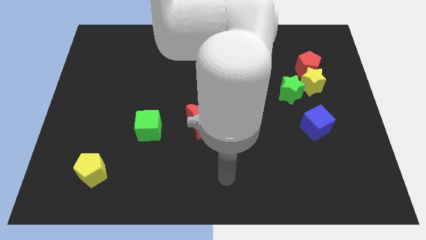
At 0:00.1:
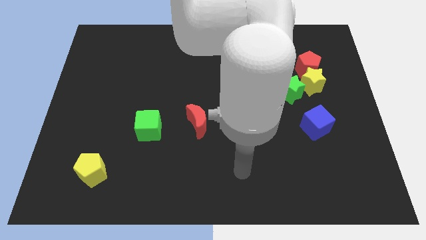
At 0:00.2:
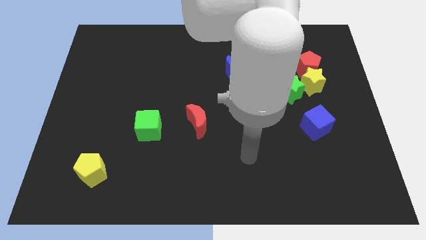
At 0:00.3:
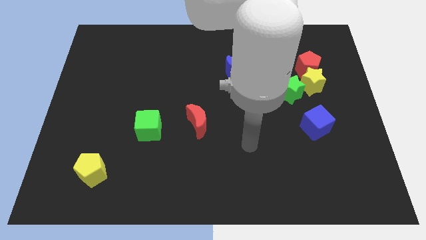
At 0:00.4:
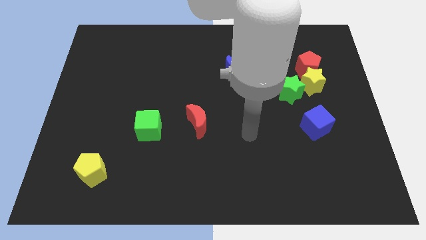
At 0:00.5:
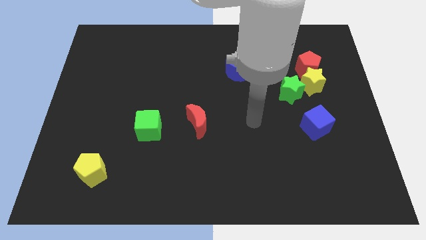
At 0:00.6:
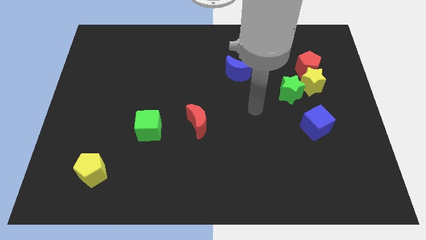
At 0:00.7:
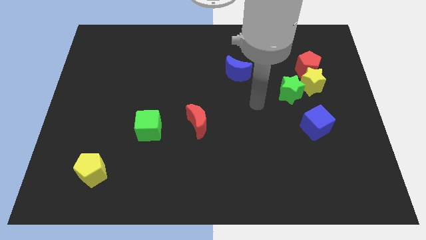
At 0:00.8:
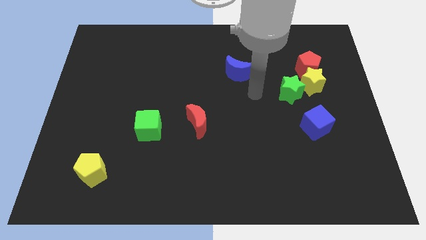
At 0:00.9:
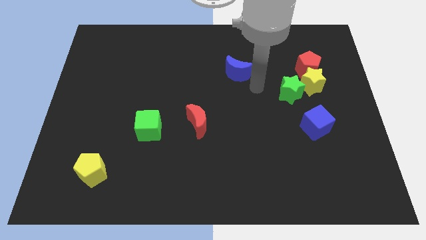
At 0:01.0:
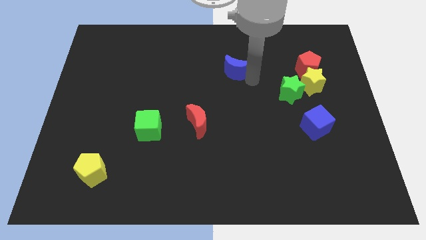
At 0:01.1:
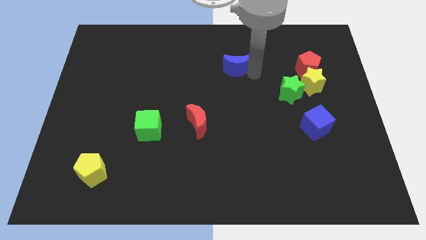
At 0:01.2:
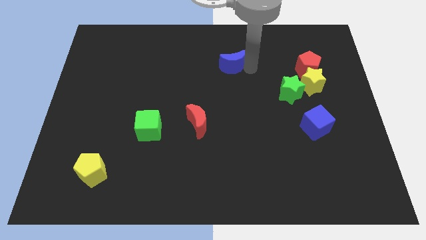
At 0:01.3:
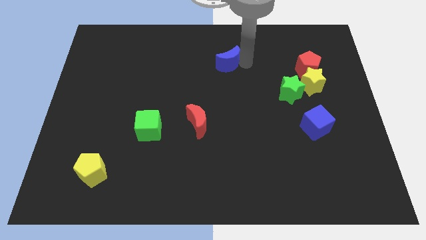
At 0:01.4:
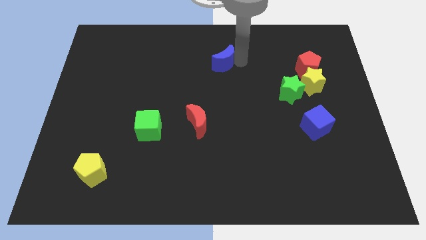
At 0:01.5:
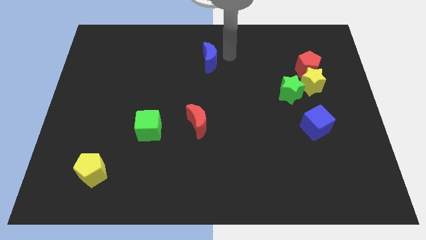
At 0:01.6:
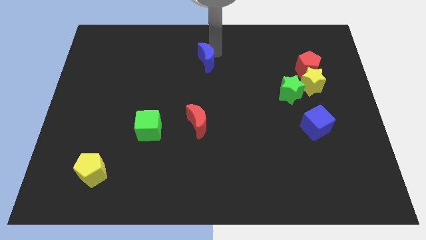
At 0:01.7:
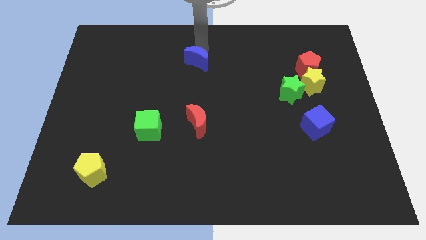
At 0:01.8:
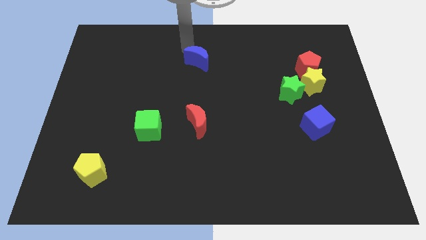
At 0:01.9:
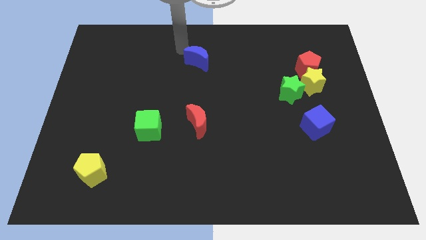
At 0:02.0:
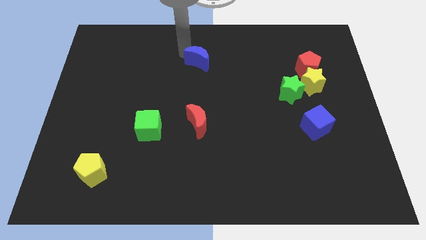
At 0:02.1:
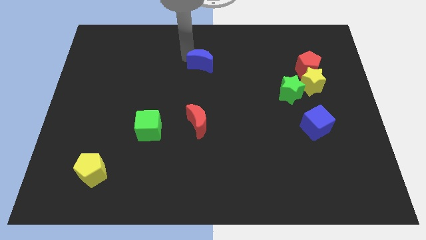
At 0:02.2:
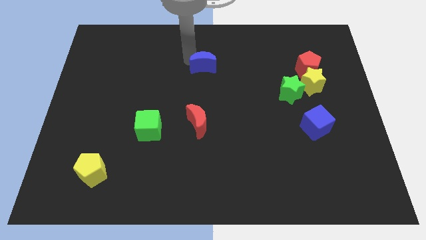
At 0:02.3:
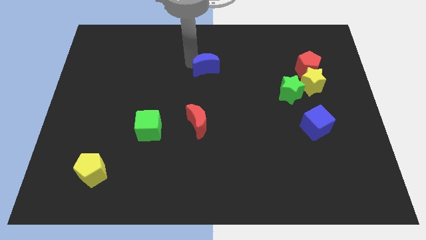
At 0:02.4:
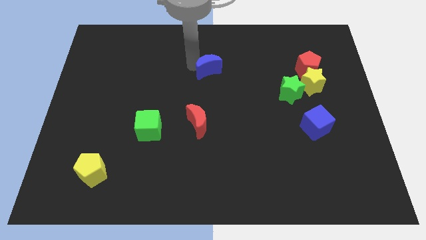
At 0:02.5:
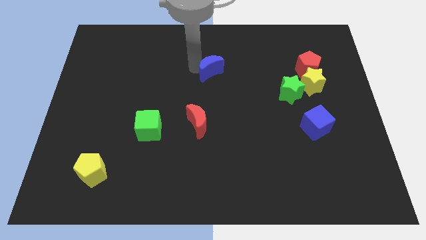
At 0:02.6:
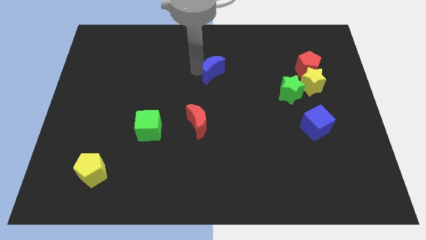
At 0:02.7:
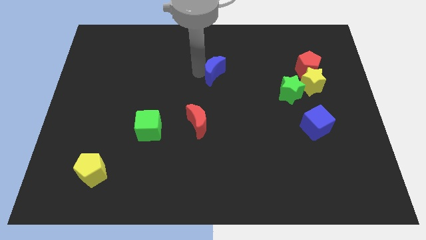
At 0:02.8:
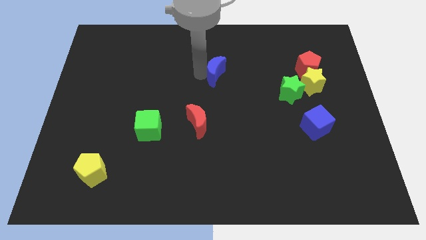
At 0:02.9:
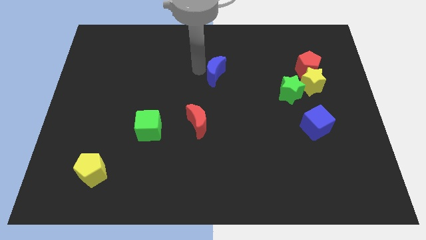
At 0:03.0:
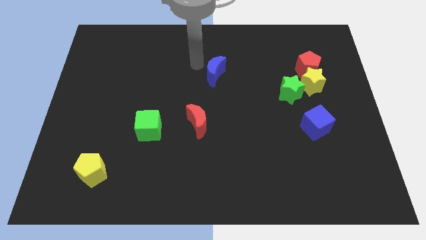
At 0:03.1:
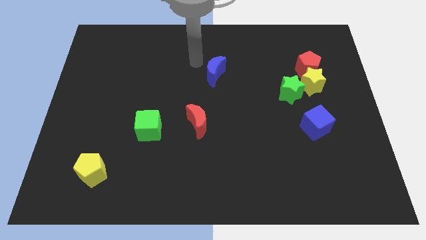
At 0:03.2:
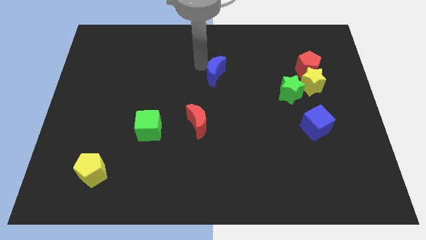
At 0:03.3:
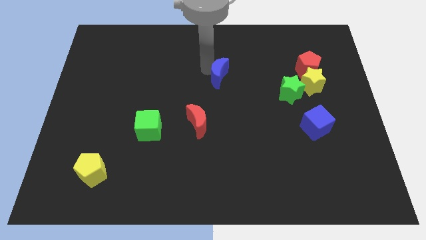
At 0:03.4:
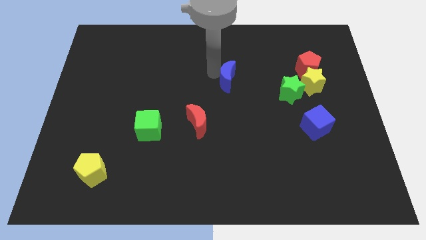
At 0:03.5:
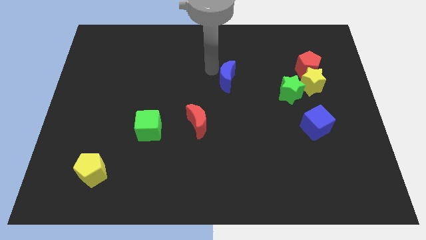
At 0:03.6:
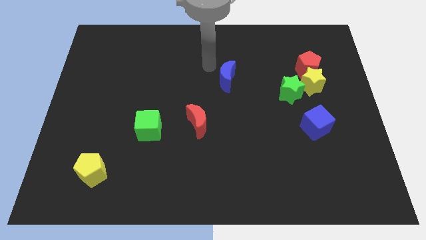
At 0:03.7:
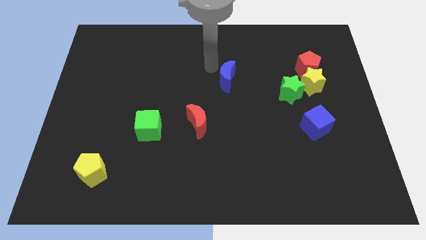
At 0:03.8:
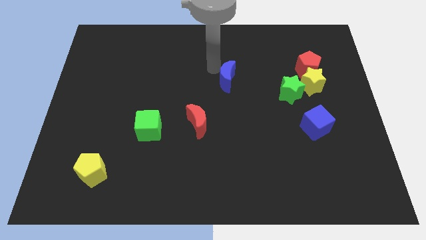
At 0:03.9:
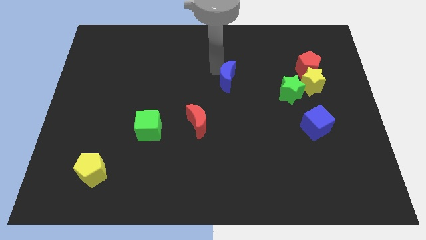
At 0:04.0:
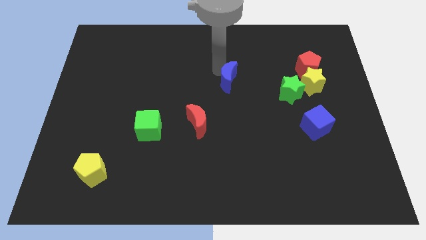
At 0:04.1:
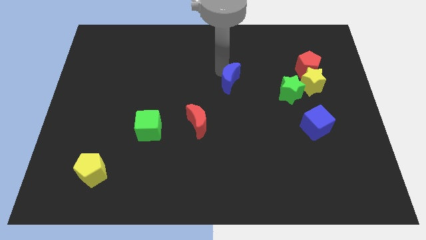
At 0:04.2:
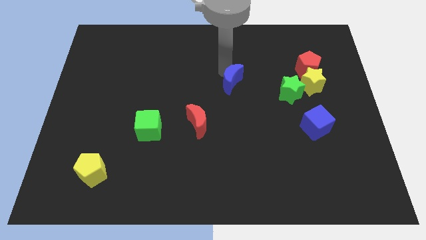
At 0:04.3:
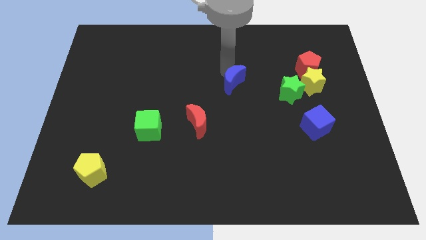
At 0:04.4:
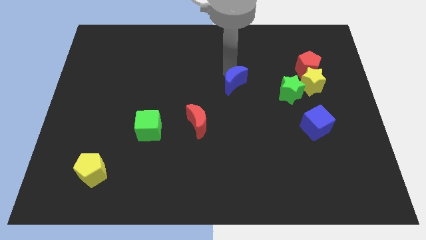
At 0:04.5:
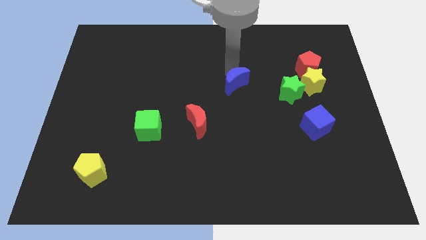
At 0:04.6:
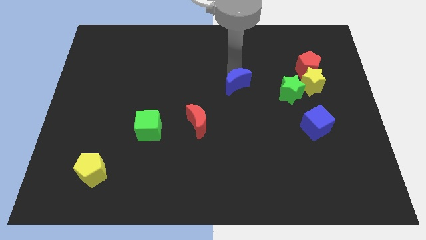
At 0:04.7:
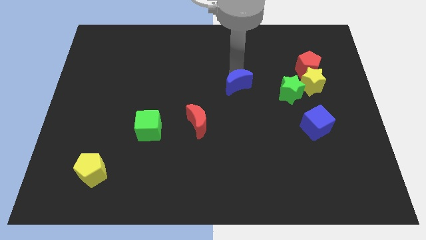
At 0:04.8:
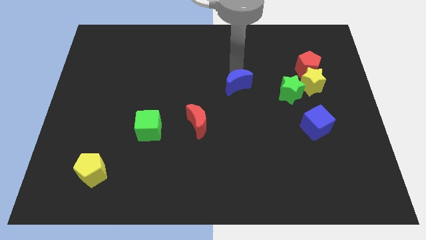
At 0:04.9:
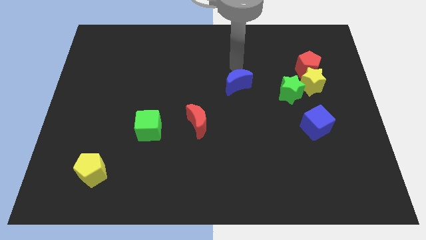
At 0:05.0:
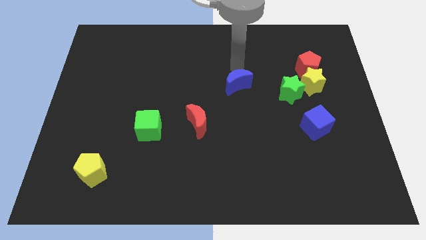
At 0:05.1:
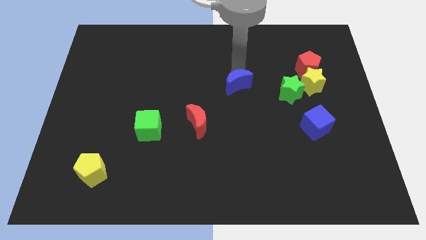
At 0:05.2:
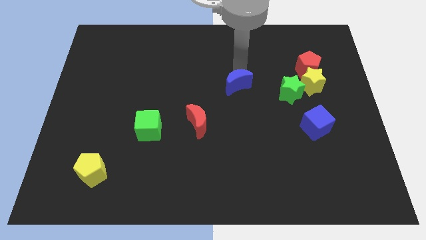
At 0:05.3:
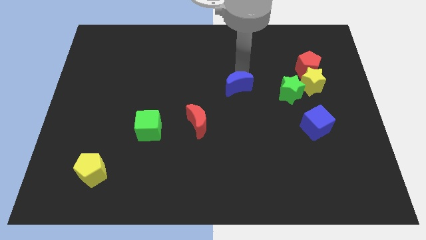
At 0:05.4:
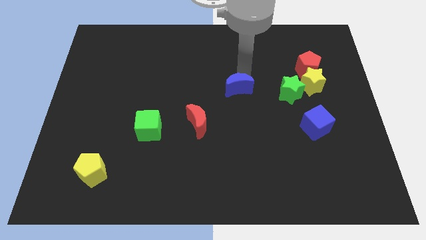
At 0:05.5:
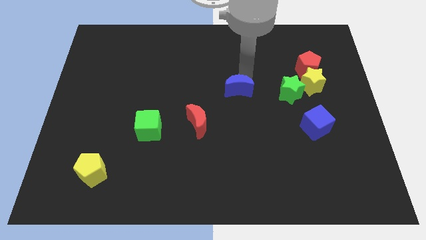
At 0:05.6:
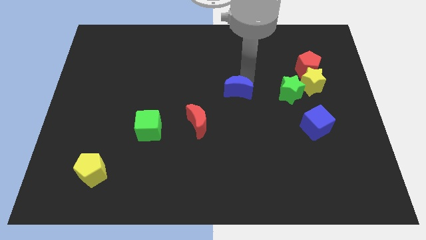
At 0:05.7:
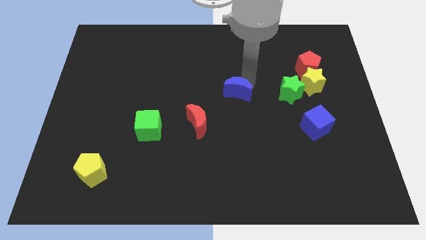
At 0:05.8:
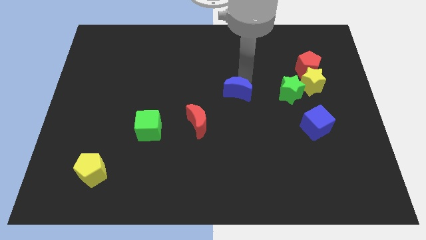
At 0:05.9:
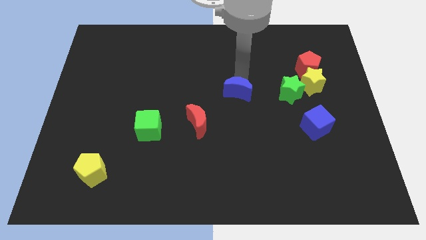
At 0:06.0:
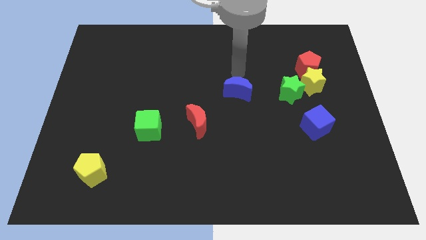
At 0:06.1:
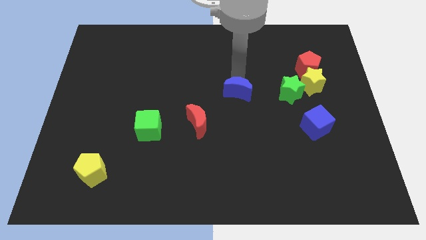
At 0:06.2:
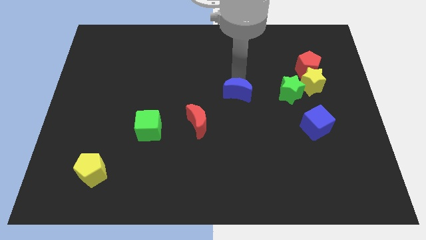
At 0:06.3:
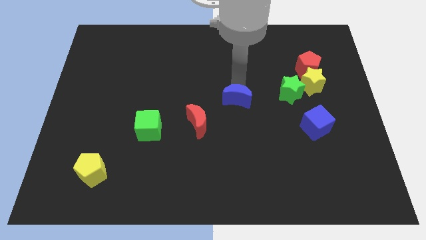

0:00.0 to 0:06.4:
slightly push the blue moon down

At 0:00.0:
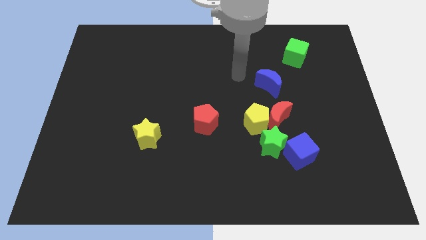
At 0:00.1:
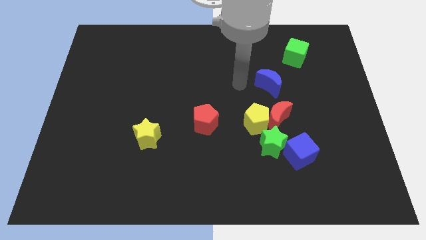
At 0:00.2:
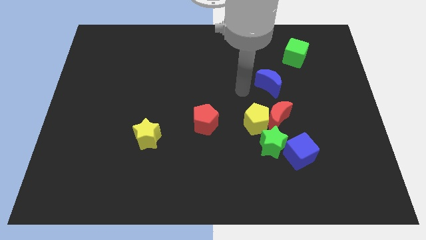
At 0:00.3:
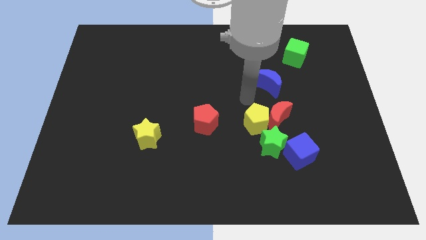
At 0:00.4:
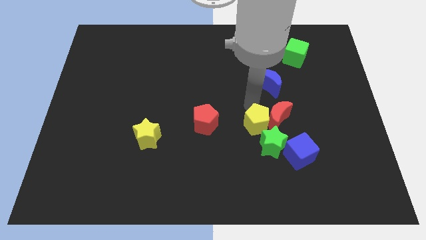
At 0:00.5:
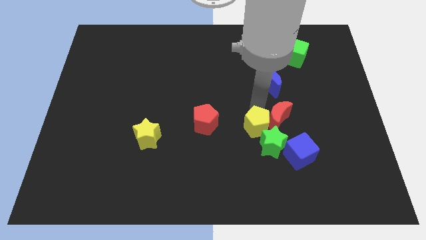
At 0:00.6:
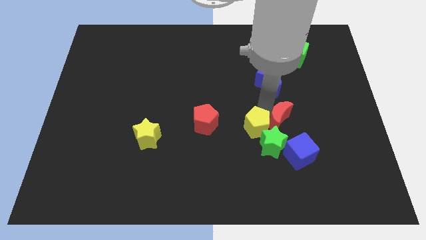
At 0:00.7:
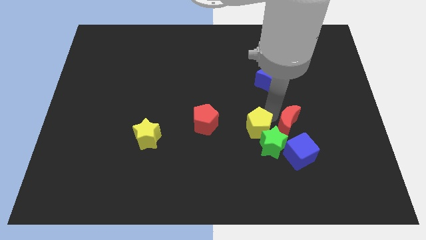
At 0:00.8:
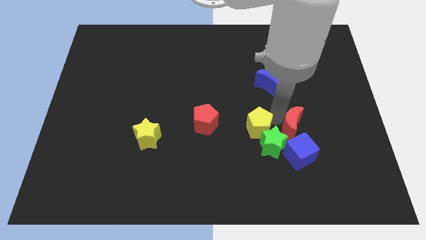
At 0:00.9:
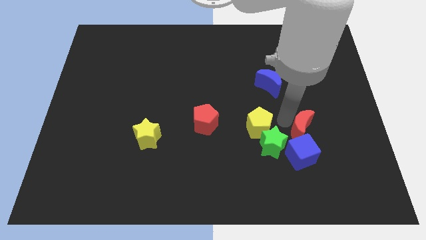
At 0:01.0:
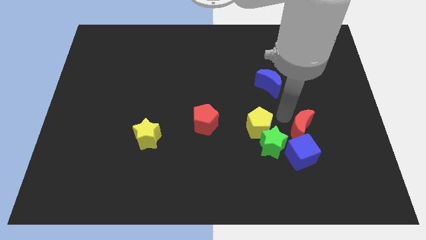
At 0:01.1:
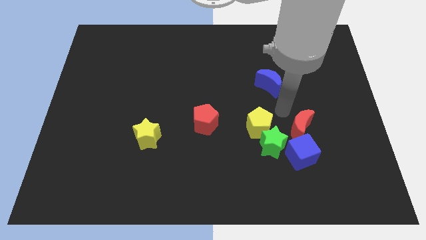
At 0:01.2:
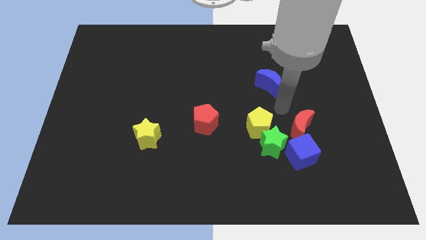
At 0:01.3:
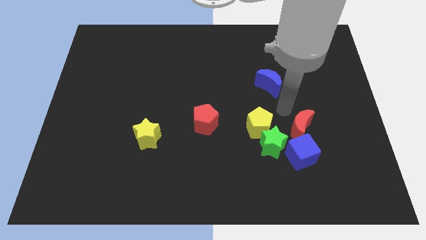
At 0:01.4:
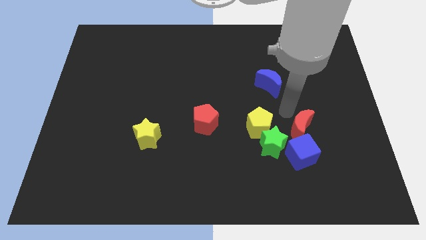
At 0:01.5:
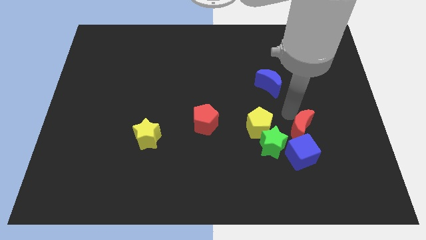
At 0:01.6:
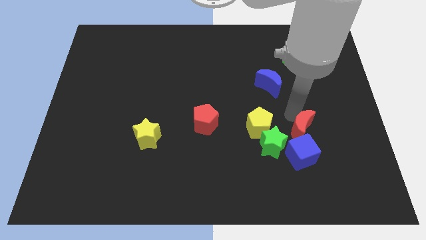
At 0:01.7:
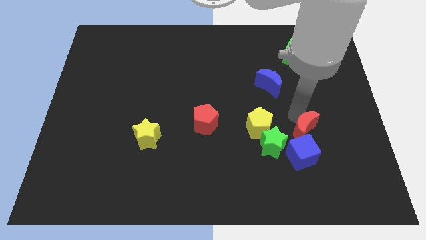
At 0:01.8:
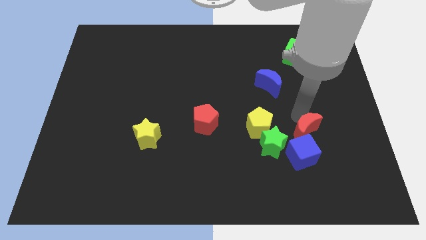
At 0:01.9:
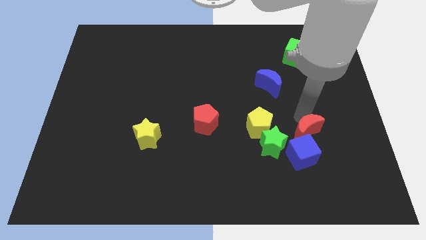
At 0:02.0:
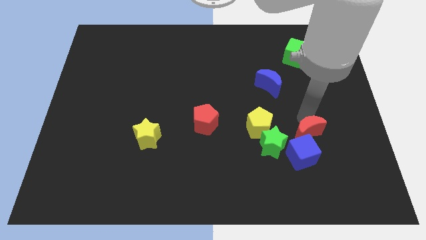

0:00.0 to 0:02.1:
slide the red moon diagonally downwards and right a little

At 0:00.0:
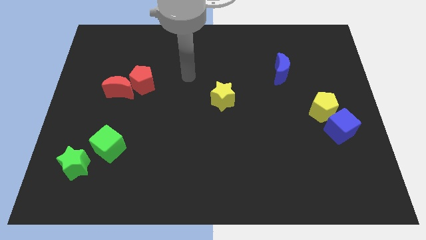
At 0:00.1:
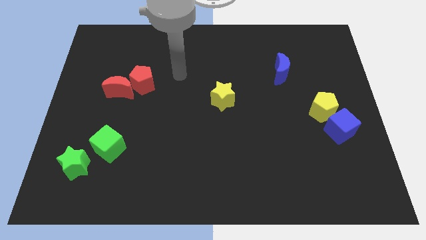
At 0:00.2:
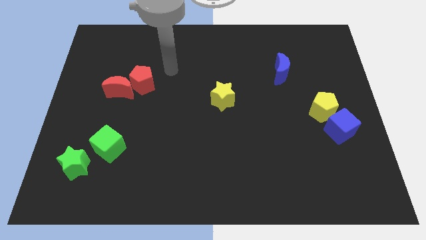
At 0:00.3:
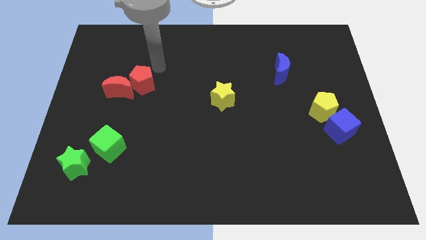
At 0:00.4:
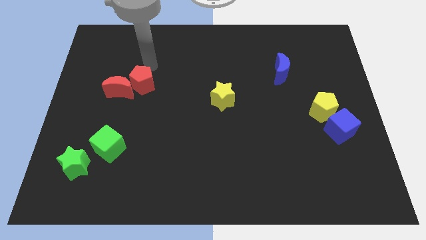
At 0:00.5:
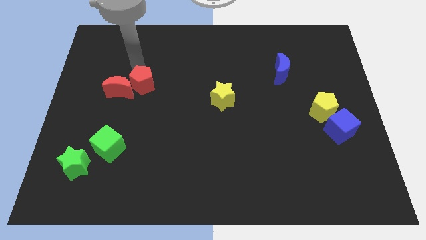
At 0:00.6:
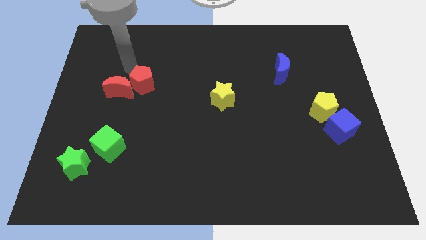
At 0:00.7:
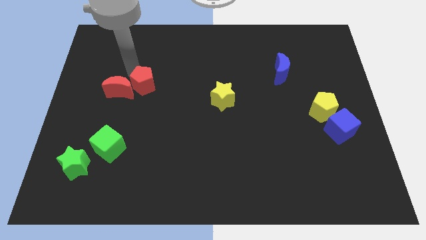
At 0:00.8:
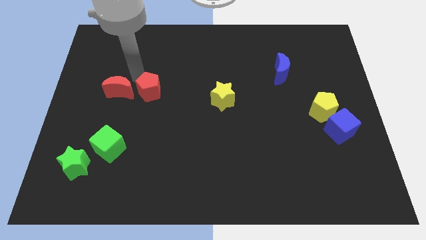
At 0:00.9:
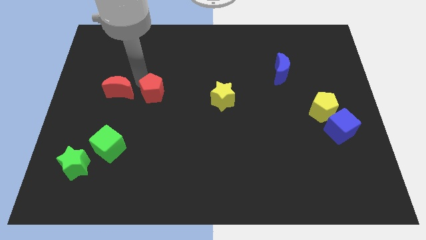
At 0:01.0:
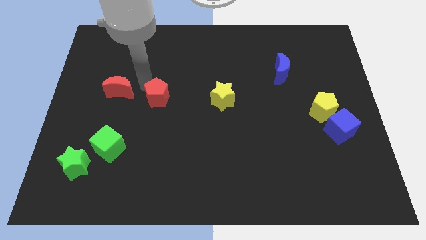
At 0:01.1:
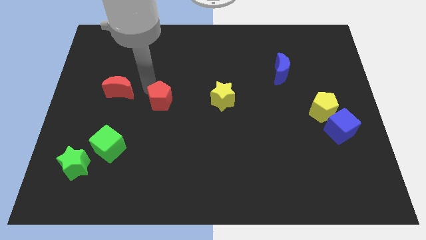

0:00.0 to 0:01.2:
slightly slide the red pentagon downwards and to the right
